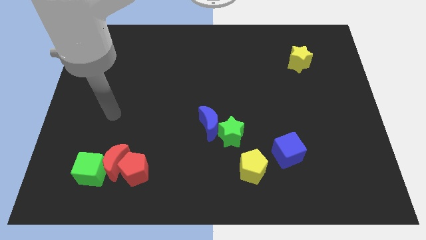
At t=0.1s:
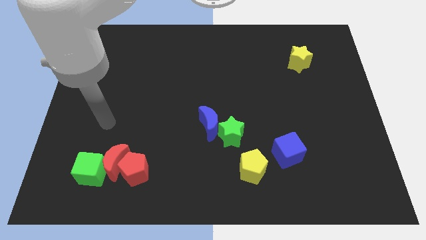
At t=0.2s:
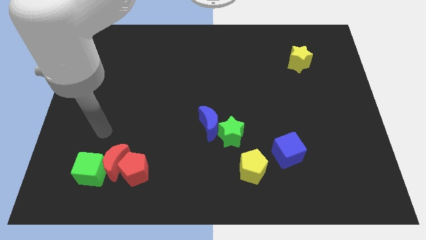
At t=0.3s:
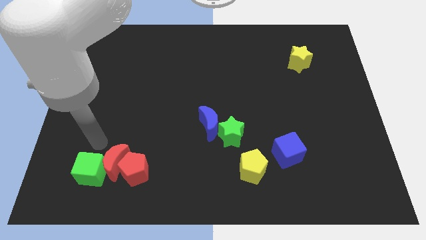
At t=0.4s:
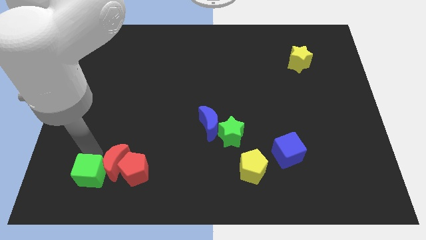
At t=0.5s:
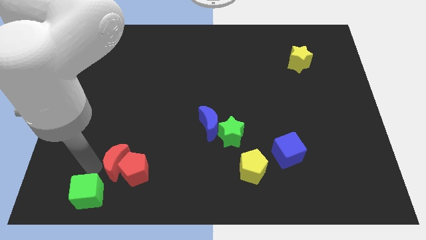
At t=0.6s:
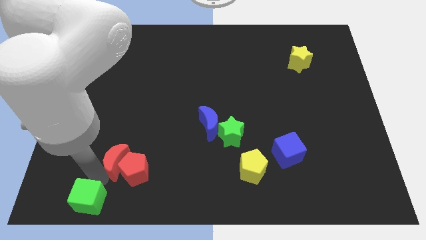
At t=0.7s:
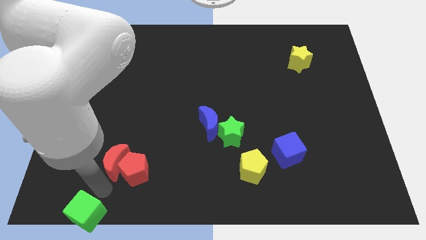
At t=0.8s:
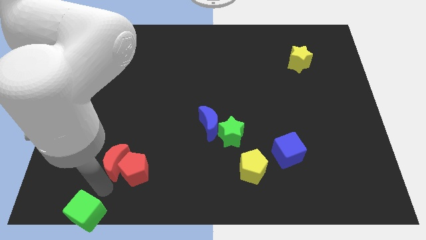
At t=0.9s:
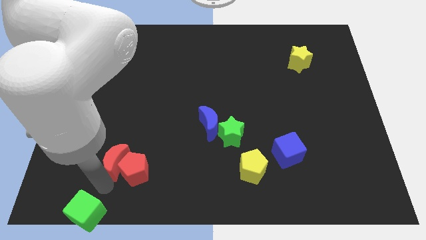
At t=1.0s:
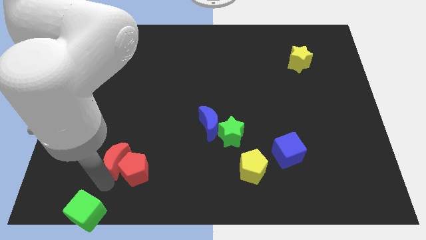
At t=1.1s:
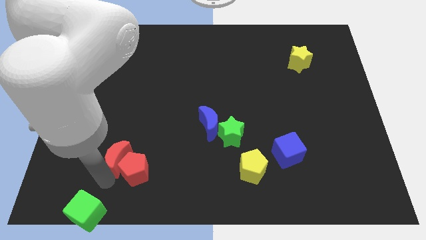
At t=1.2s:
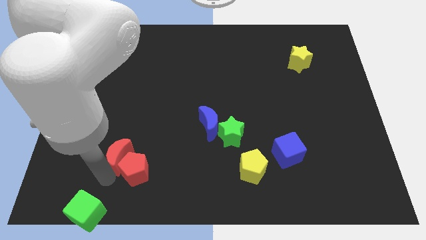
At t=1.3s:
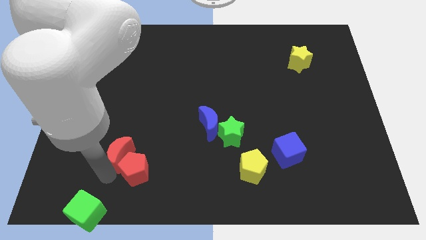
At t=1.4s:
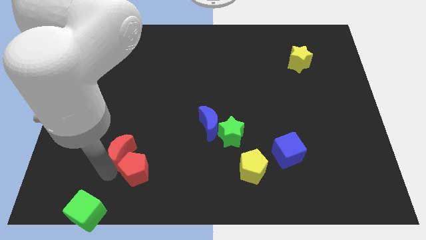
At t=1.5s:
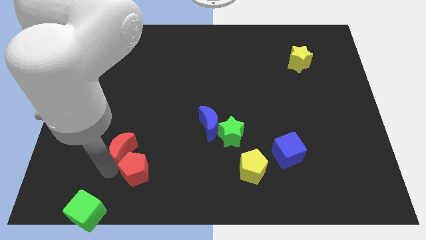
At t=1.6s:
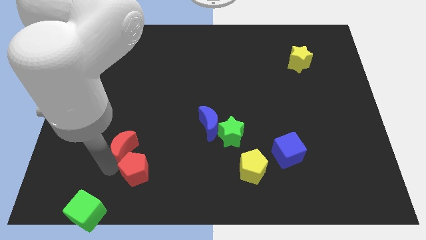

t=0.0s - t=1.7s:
separate the red moon from the red pentagon and green cube

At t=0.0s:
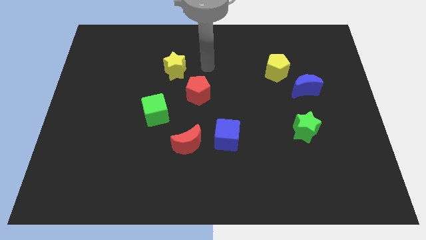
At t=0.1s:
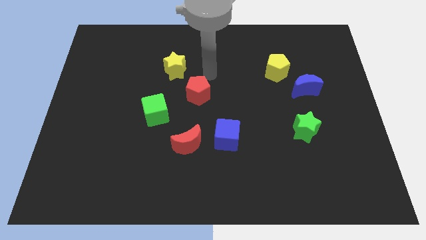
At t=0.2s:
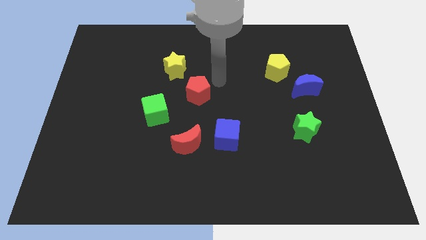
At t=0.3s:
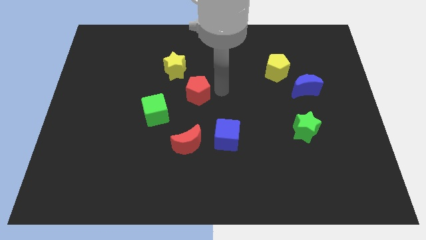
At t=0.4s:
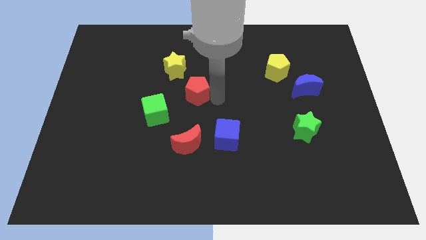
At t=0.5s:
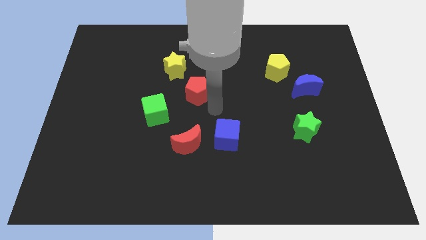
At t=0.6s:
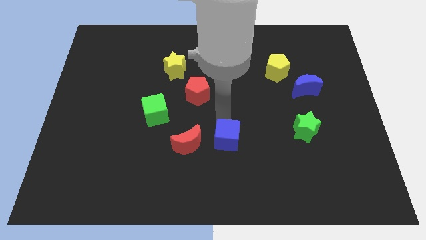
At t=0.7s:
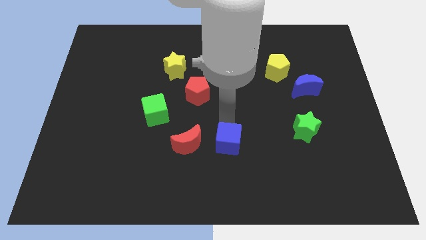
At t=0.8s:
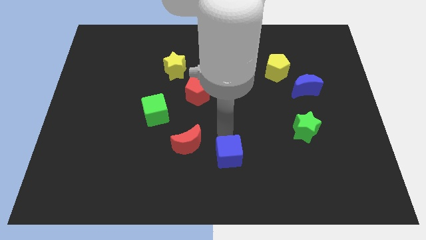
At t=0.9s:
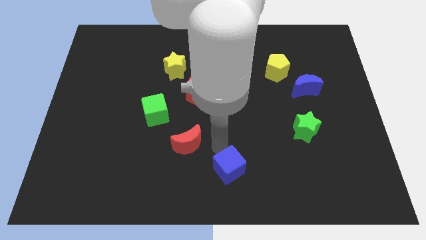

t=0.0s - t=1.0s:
separate the red moon from the blue cube

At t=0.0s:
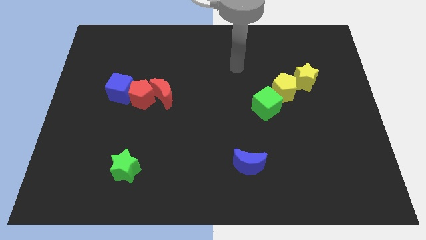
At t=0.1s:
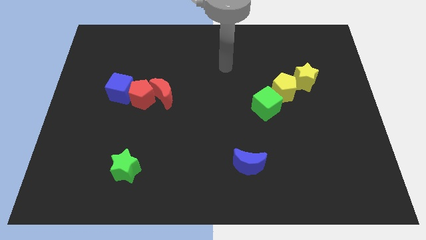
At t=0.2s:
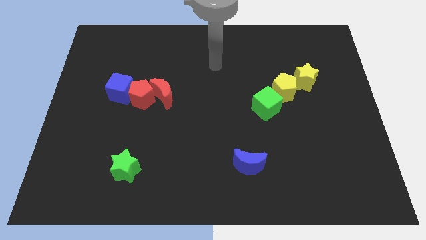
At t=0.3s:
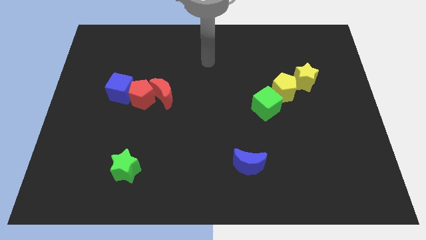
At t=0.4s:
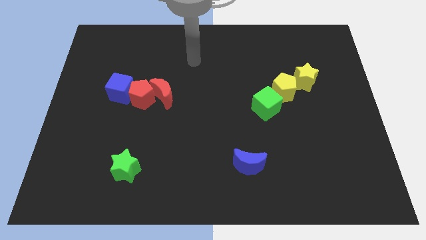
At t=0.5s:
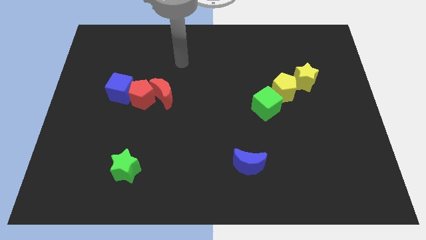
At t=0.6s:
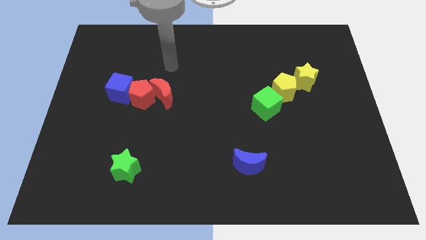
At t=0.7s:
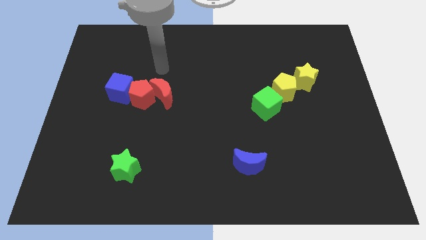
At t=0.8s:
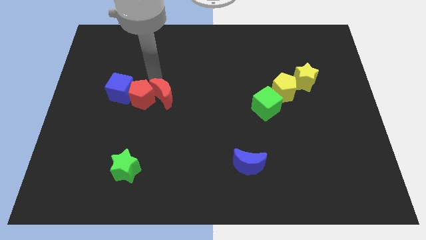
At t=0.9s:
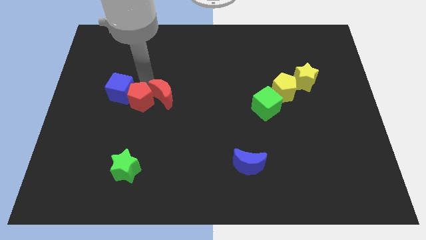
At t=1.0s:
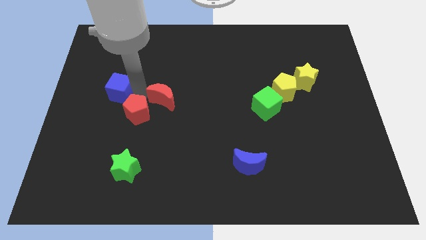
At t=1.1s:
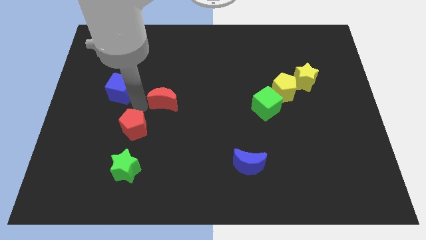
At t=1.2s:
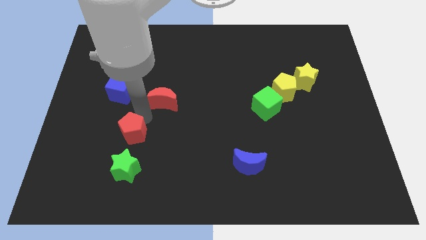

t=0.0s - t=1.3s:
separate the red moon from the red pentagon

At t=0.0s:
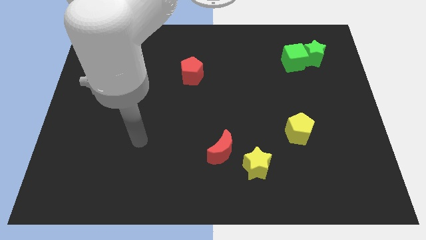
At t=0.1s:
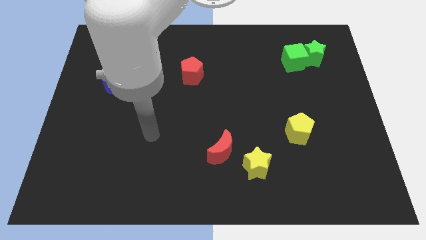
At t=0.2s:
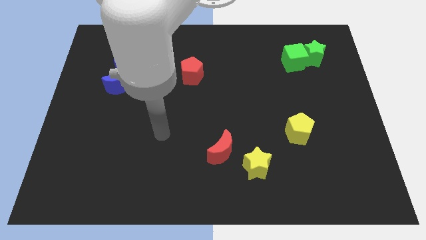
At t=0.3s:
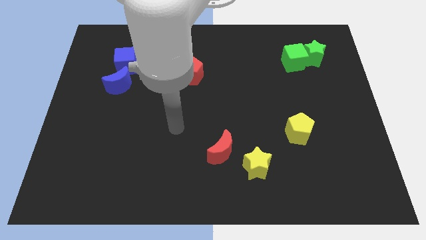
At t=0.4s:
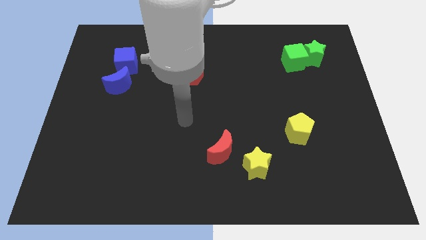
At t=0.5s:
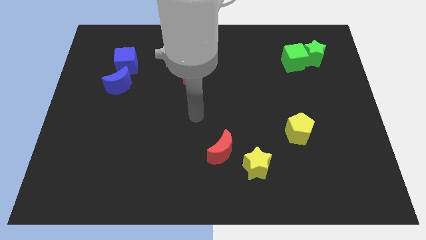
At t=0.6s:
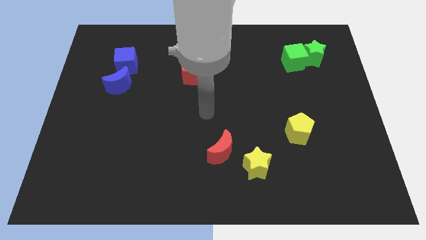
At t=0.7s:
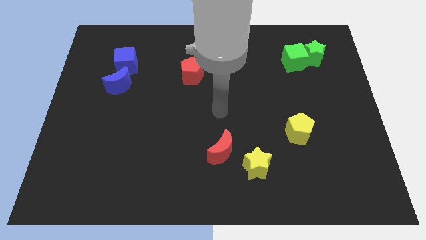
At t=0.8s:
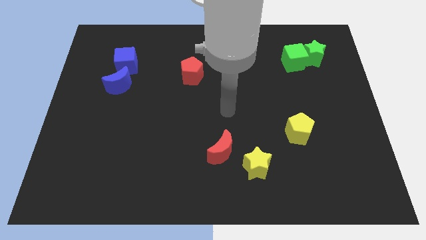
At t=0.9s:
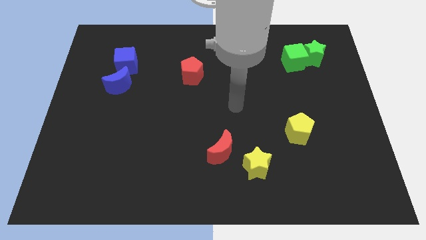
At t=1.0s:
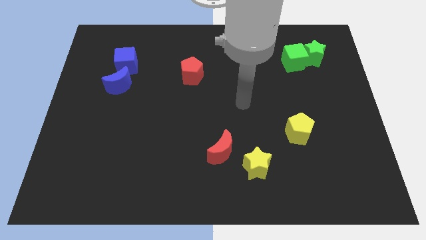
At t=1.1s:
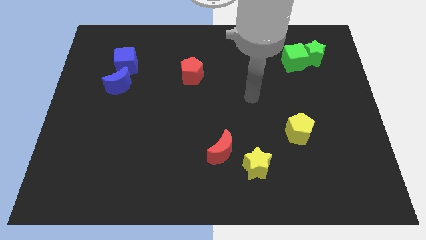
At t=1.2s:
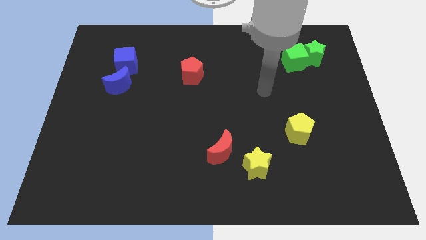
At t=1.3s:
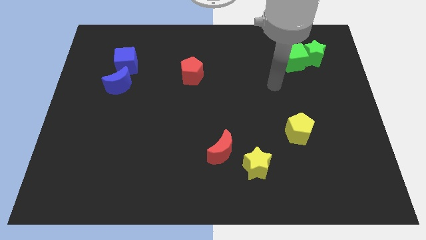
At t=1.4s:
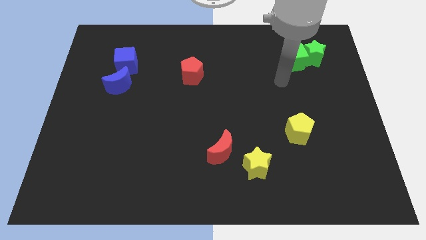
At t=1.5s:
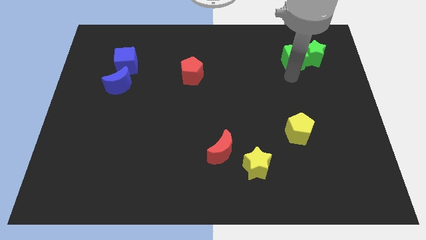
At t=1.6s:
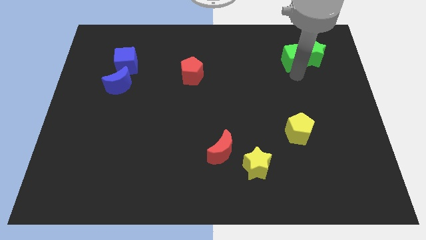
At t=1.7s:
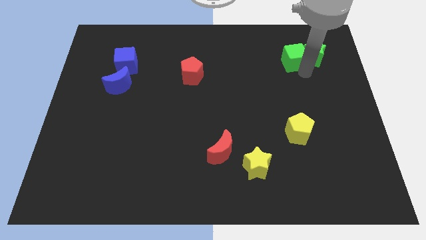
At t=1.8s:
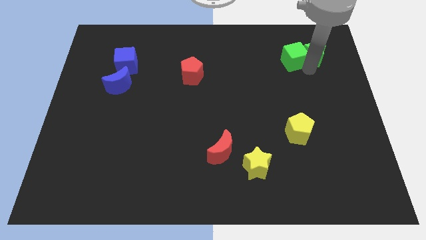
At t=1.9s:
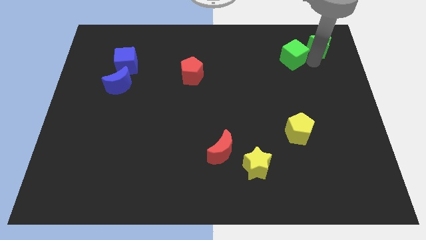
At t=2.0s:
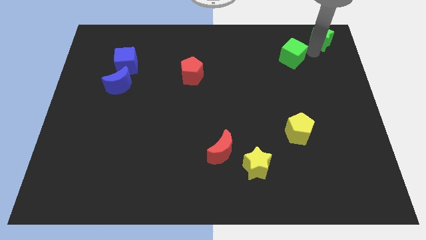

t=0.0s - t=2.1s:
separate the green cube from the green star

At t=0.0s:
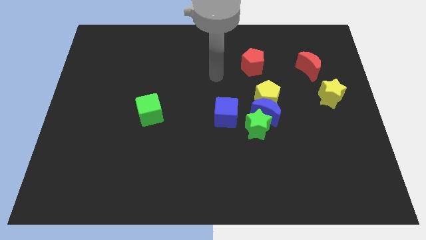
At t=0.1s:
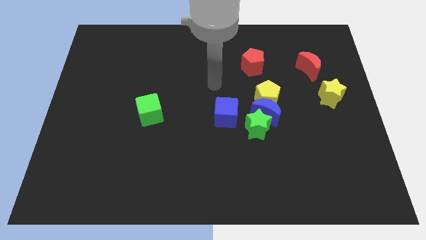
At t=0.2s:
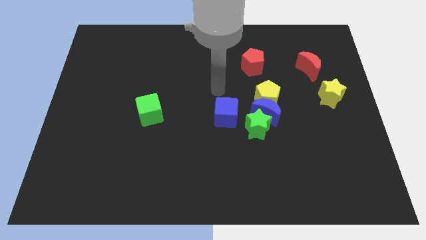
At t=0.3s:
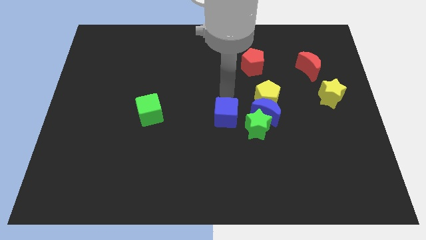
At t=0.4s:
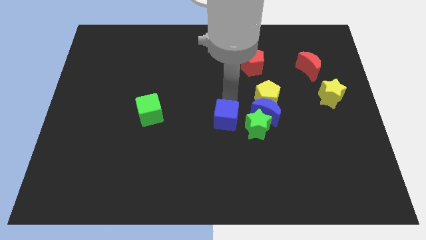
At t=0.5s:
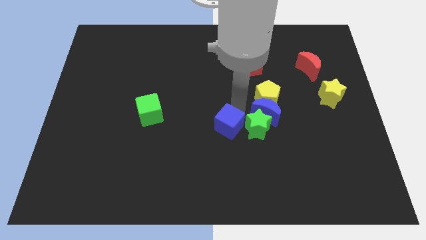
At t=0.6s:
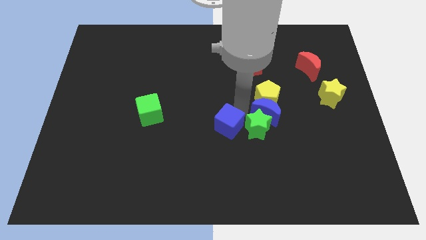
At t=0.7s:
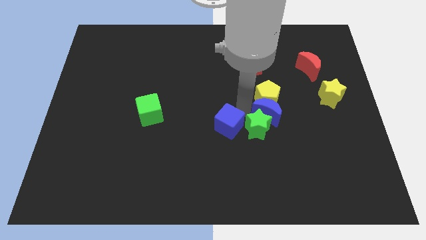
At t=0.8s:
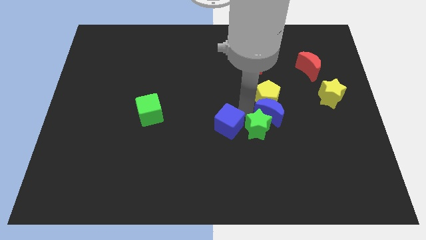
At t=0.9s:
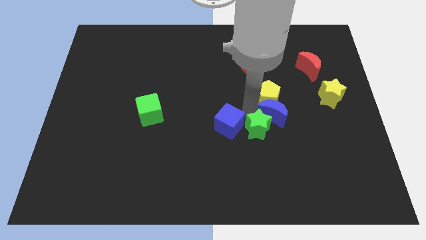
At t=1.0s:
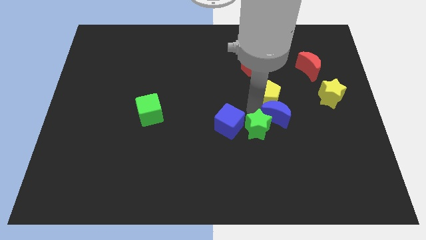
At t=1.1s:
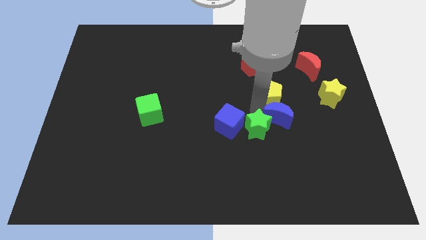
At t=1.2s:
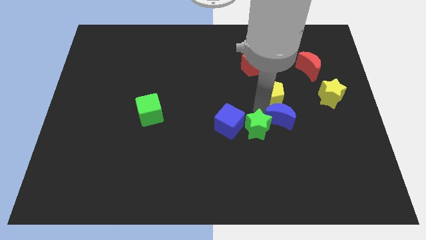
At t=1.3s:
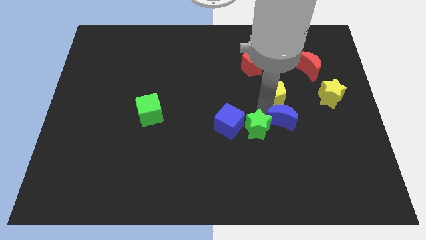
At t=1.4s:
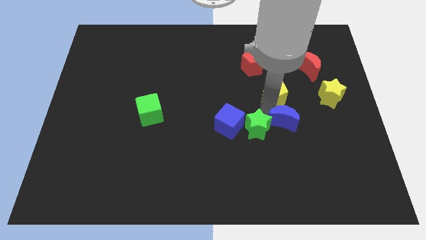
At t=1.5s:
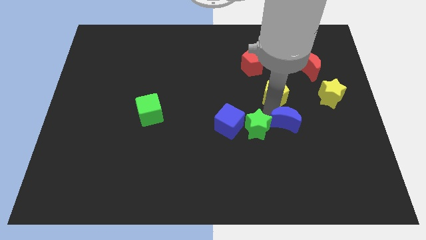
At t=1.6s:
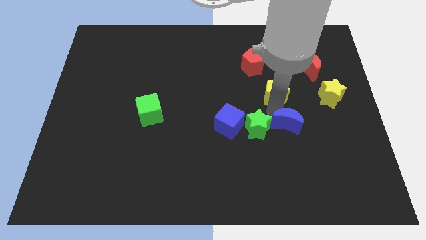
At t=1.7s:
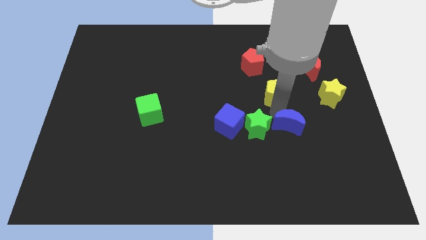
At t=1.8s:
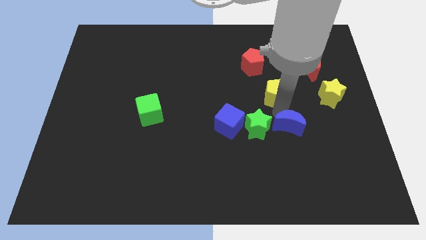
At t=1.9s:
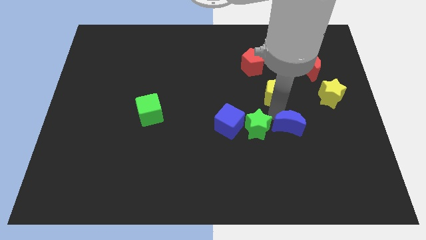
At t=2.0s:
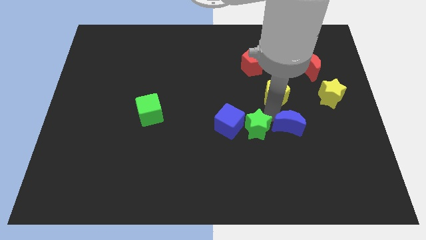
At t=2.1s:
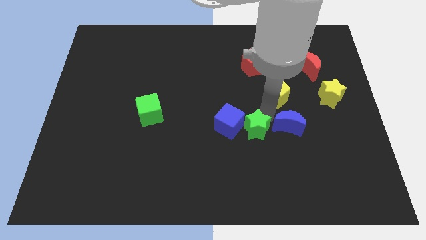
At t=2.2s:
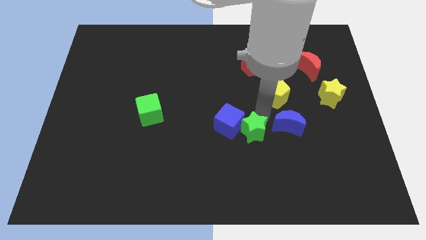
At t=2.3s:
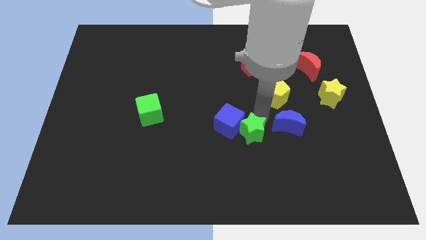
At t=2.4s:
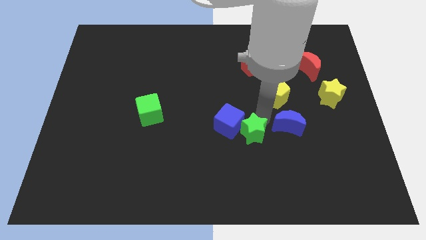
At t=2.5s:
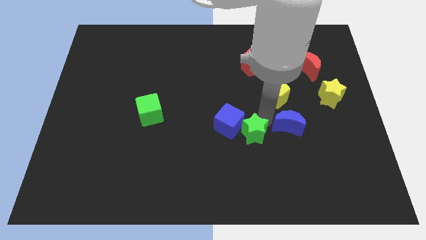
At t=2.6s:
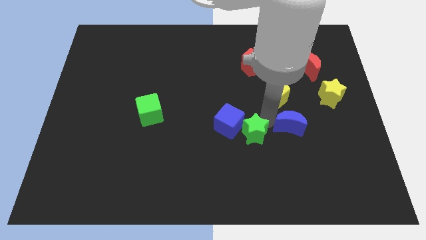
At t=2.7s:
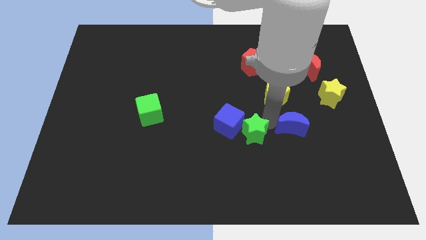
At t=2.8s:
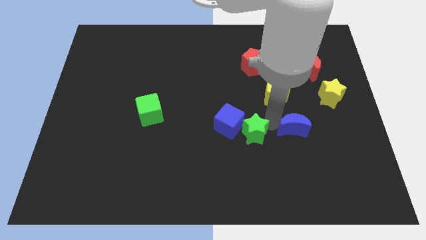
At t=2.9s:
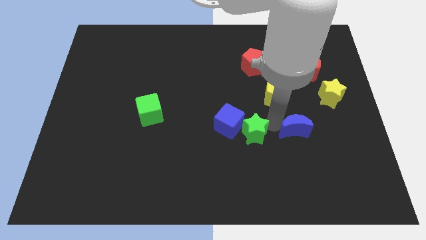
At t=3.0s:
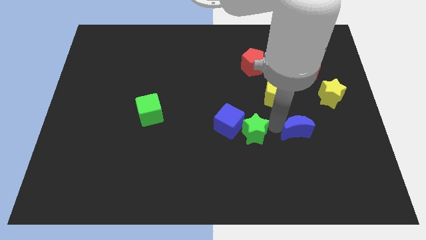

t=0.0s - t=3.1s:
pull the blue moon apart from the group

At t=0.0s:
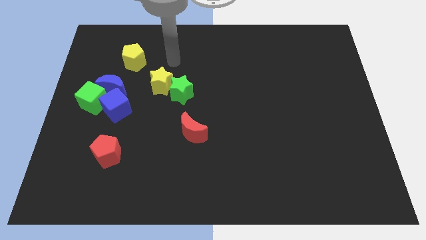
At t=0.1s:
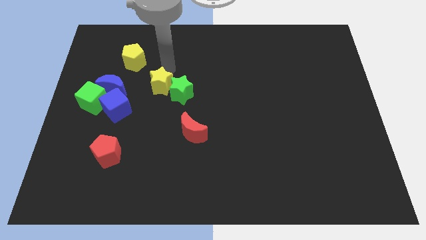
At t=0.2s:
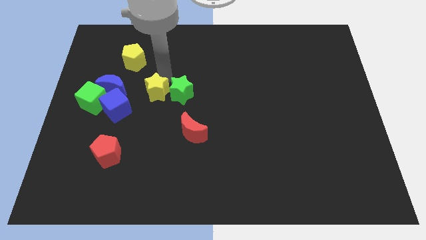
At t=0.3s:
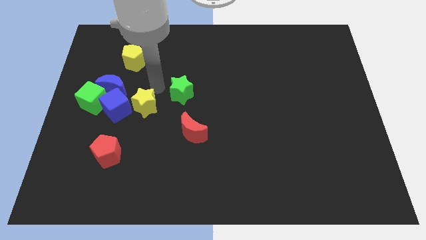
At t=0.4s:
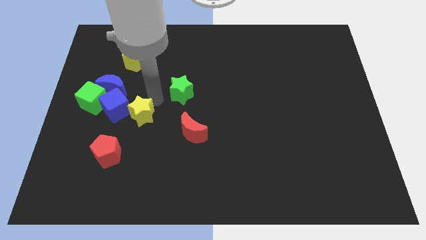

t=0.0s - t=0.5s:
move the green star away from the yellow star
